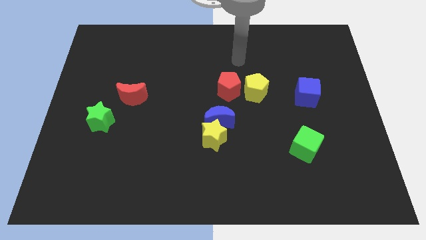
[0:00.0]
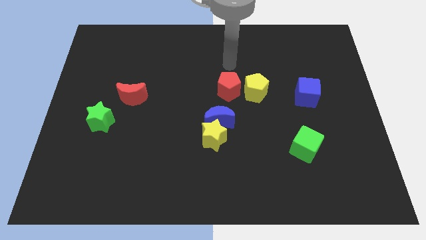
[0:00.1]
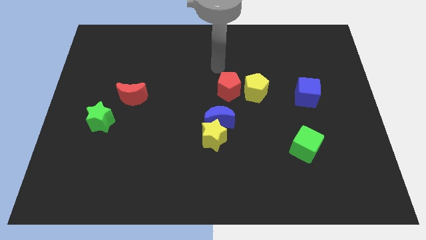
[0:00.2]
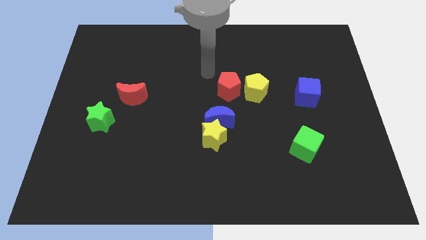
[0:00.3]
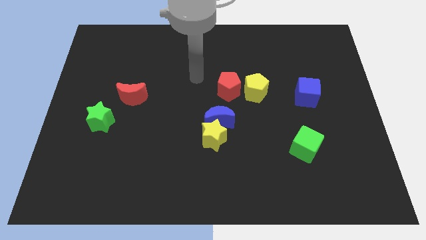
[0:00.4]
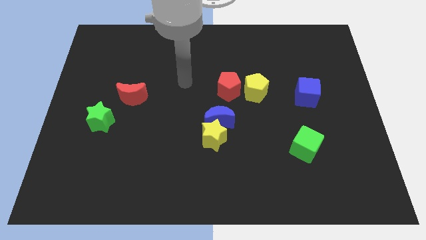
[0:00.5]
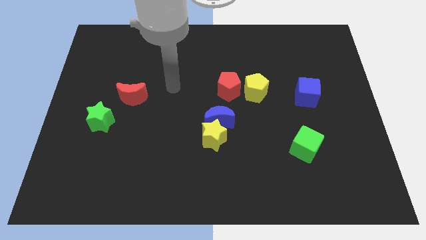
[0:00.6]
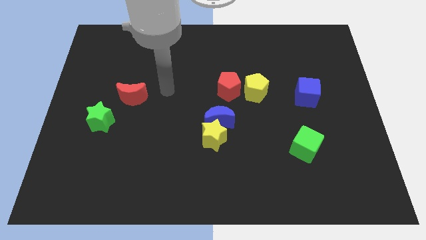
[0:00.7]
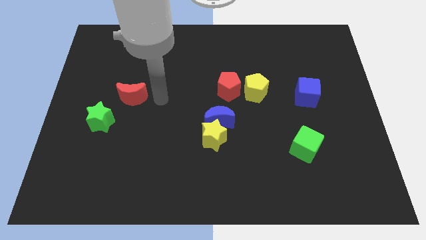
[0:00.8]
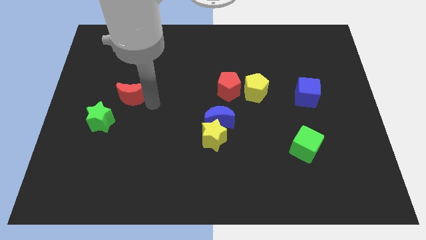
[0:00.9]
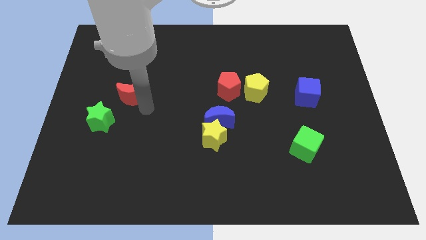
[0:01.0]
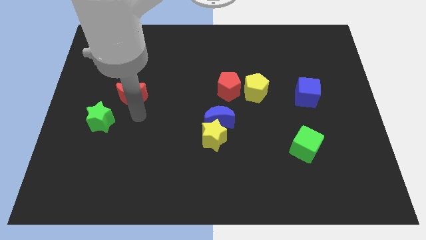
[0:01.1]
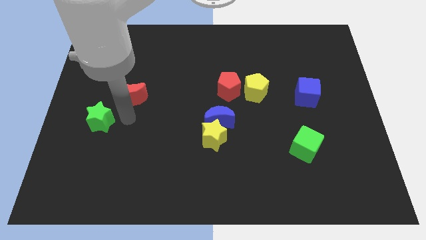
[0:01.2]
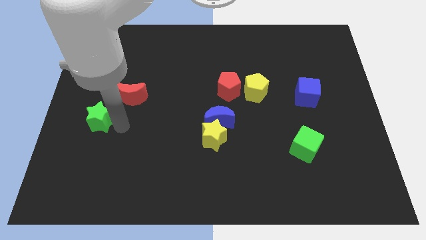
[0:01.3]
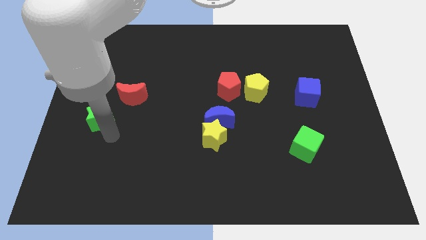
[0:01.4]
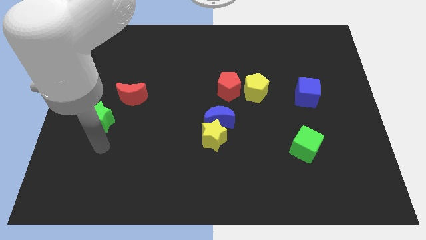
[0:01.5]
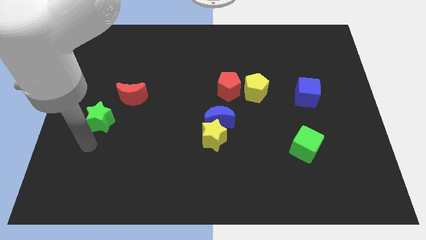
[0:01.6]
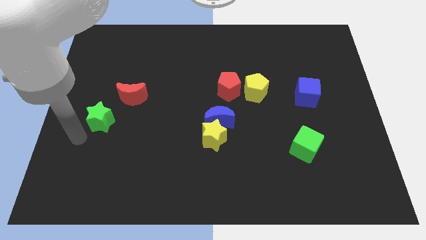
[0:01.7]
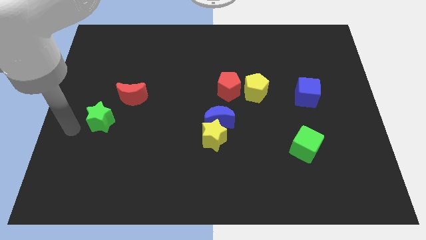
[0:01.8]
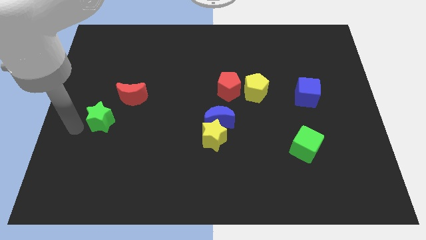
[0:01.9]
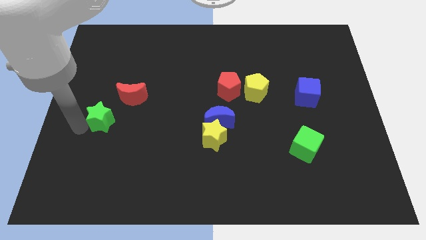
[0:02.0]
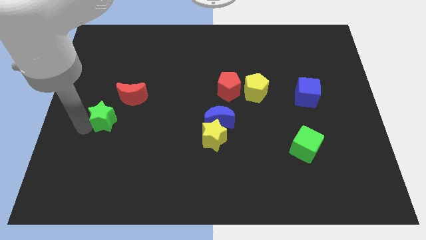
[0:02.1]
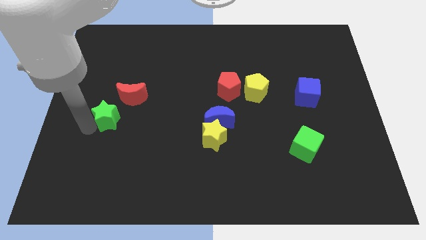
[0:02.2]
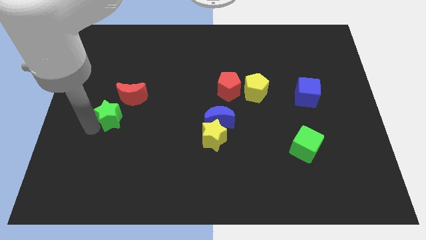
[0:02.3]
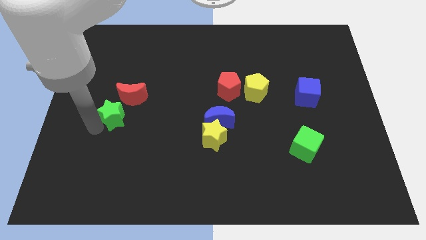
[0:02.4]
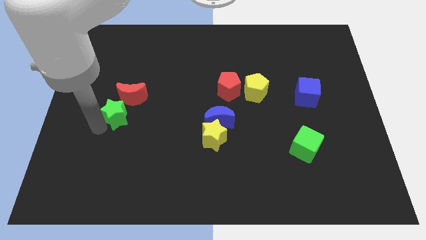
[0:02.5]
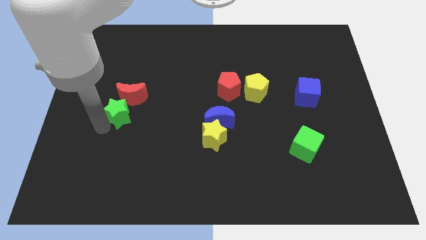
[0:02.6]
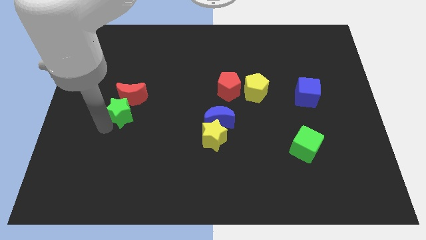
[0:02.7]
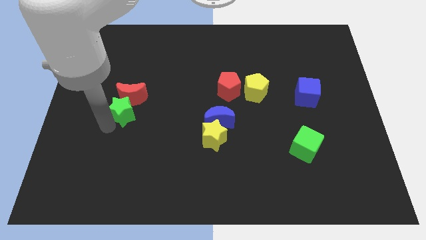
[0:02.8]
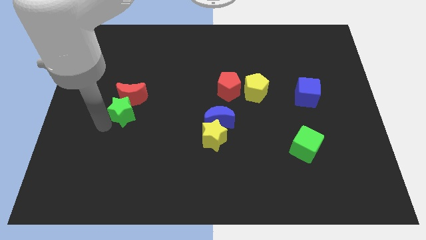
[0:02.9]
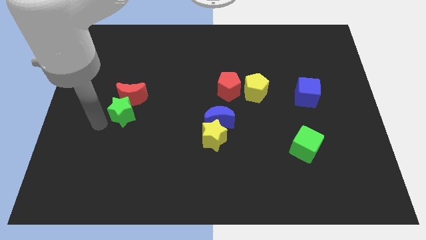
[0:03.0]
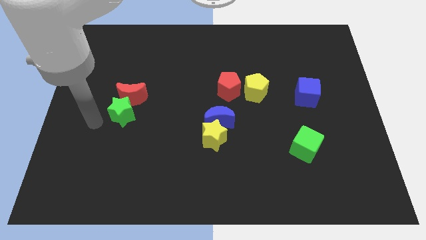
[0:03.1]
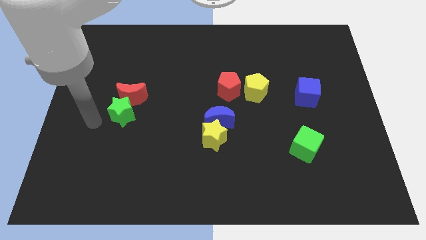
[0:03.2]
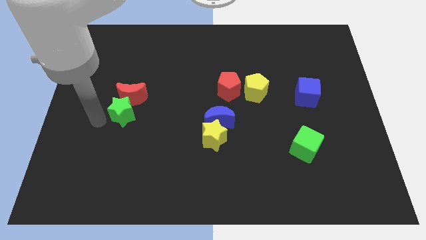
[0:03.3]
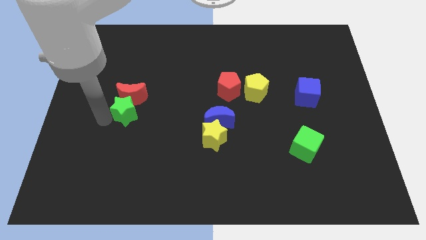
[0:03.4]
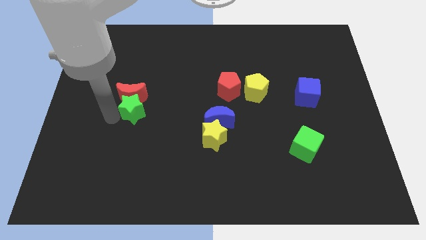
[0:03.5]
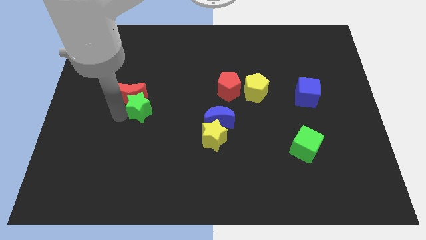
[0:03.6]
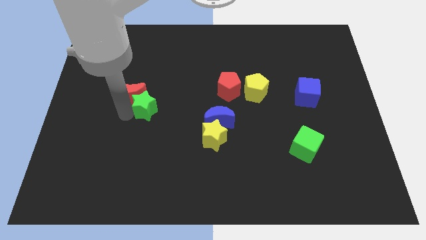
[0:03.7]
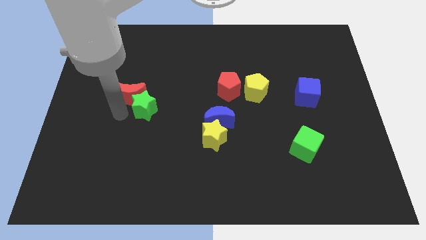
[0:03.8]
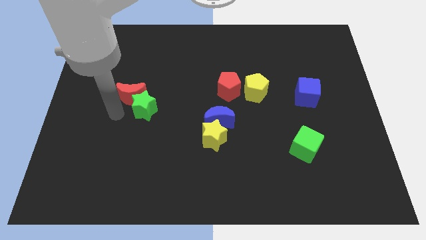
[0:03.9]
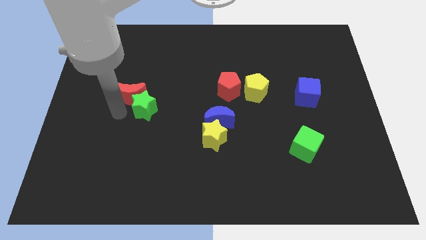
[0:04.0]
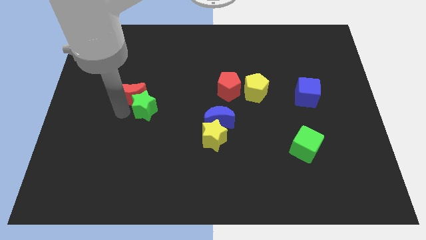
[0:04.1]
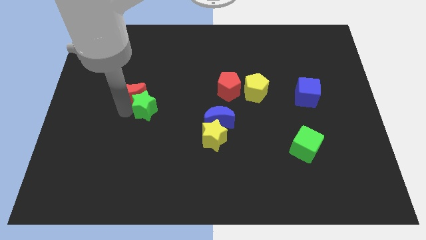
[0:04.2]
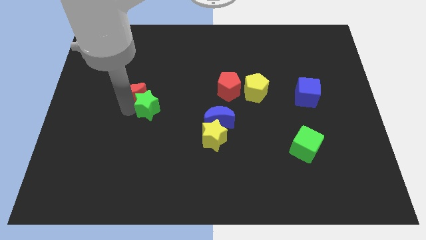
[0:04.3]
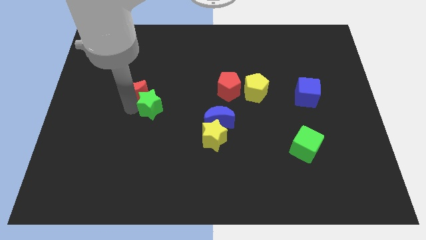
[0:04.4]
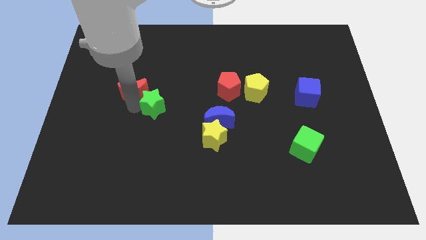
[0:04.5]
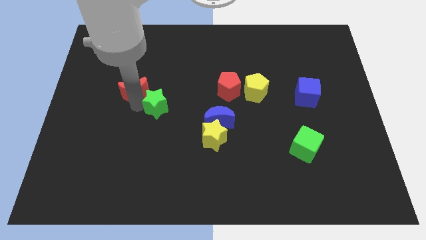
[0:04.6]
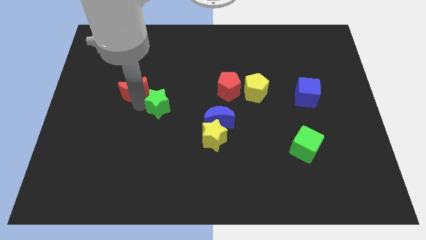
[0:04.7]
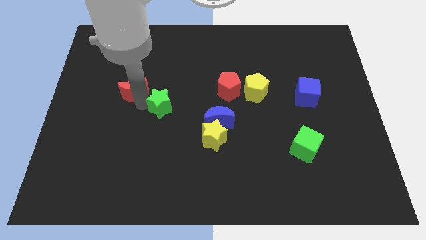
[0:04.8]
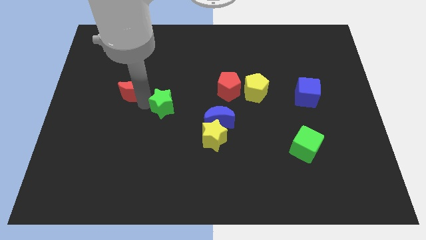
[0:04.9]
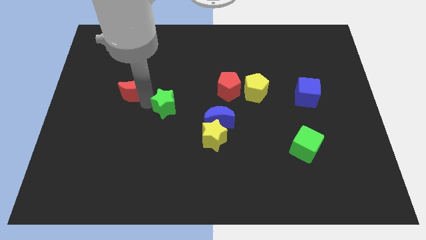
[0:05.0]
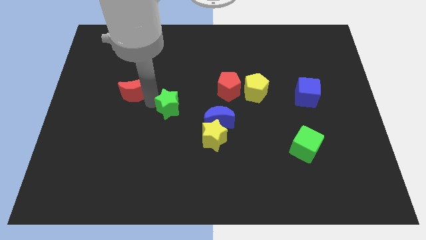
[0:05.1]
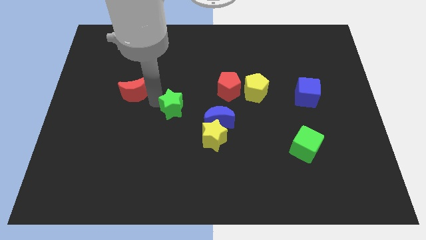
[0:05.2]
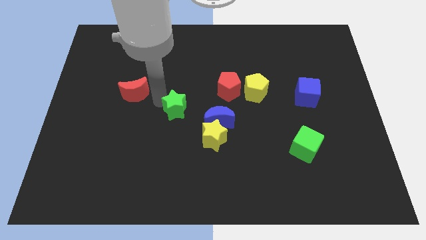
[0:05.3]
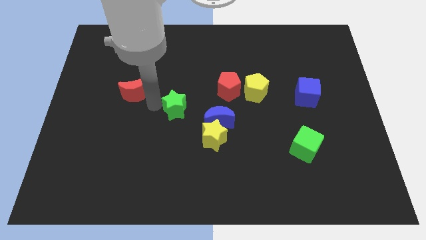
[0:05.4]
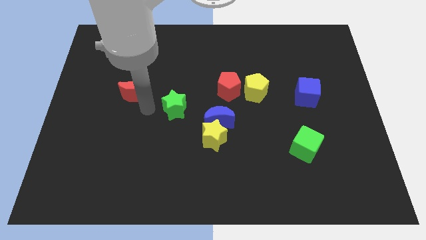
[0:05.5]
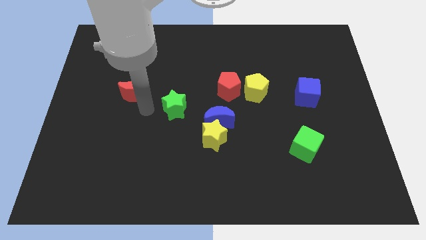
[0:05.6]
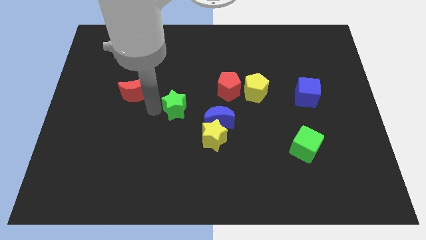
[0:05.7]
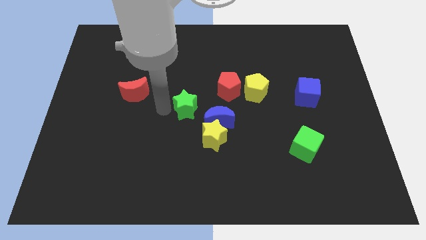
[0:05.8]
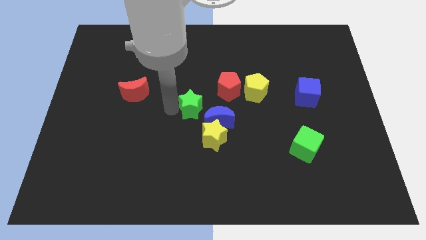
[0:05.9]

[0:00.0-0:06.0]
slide the green star to the right

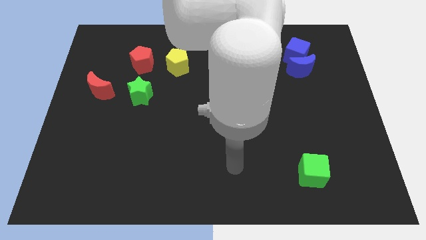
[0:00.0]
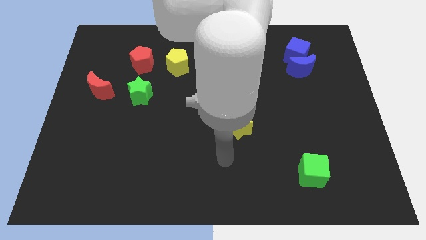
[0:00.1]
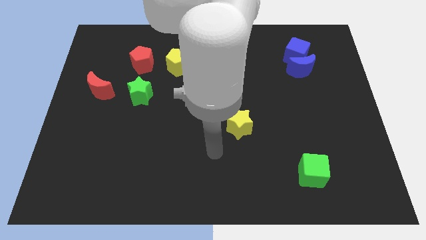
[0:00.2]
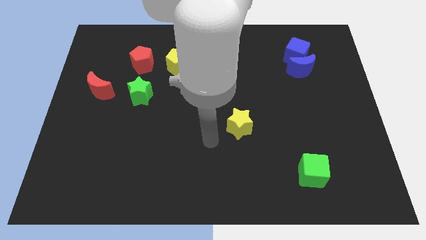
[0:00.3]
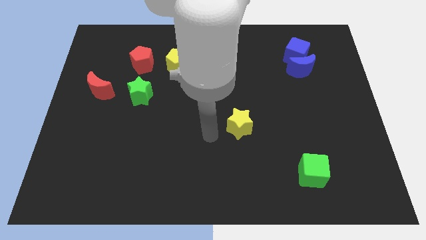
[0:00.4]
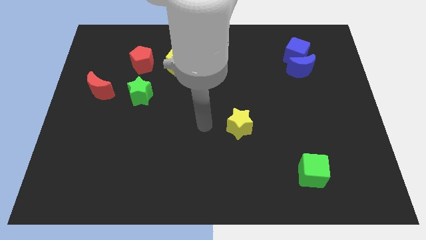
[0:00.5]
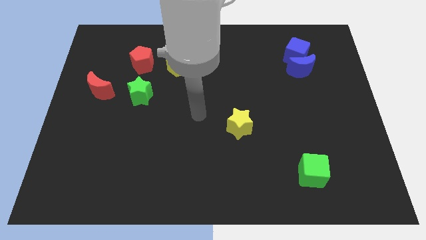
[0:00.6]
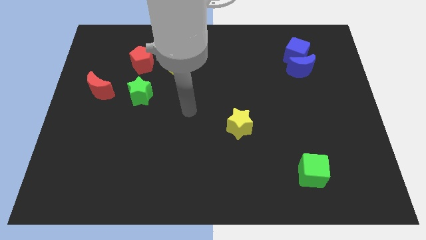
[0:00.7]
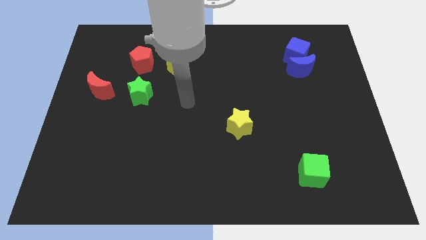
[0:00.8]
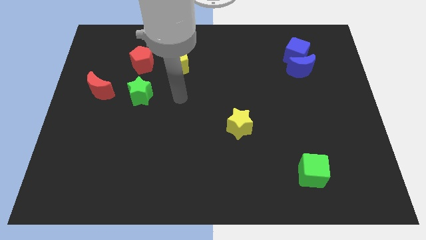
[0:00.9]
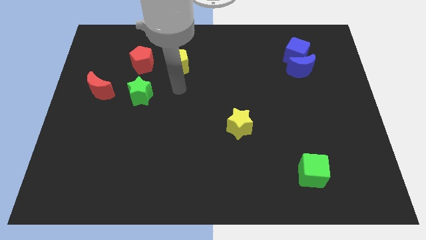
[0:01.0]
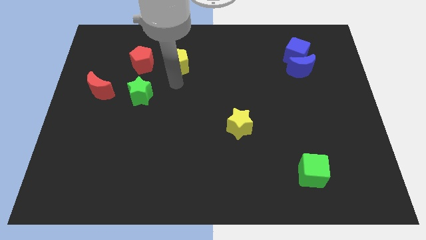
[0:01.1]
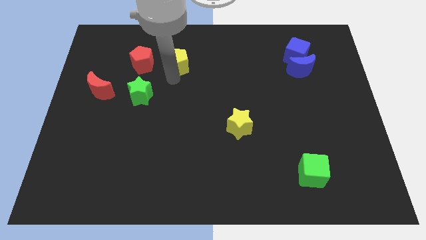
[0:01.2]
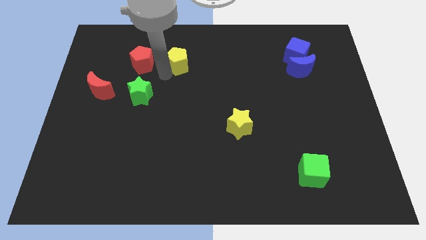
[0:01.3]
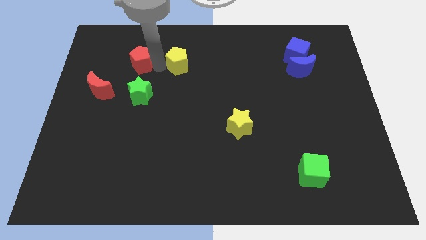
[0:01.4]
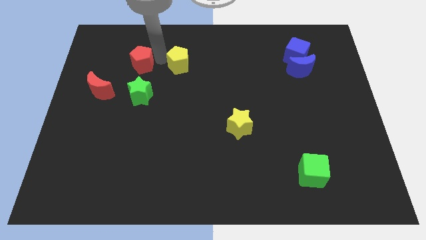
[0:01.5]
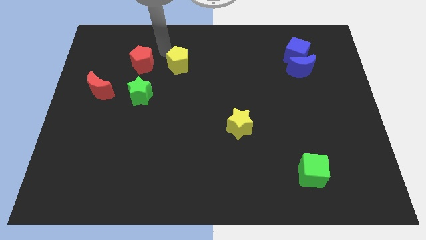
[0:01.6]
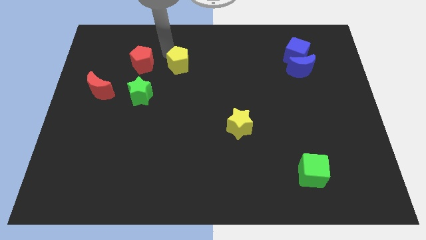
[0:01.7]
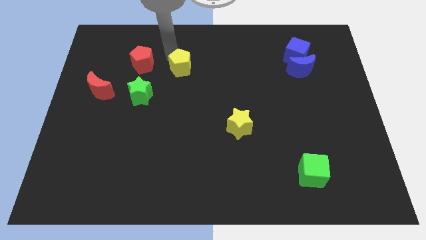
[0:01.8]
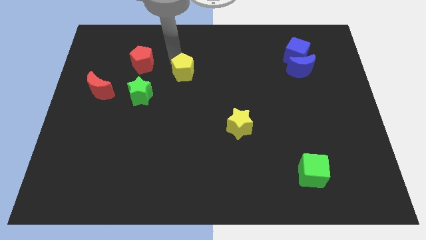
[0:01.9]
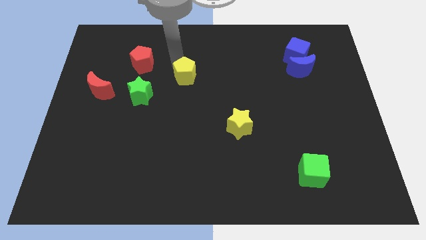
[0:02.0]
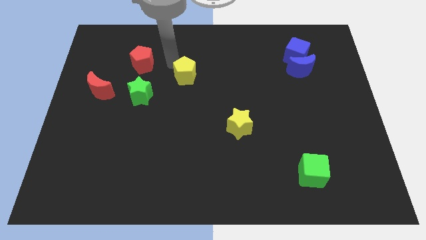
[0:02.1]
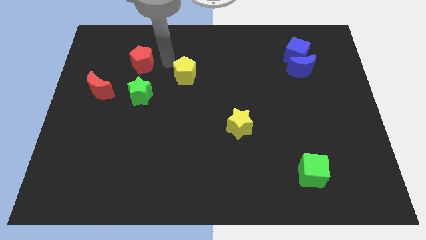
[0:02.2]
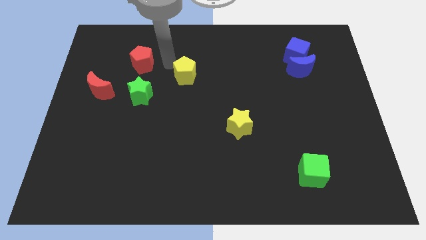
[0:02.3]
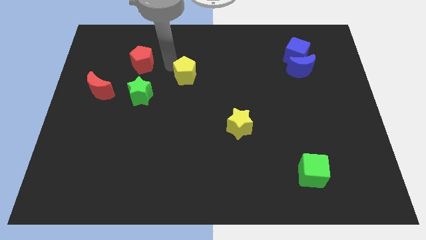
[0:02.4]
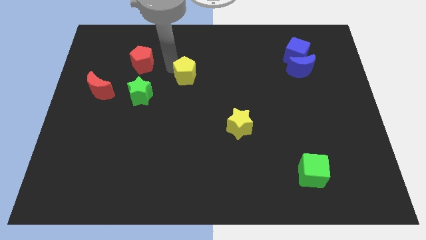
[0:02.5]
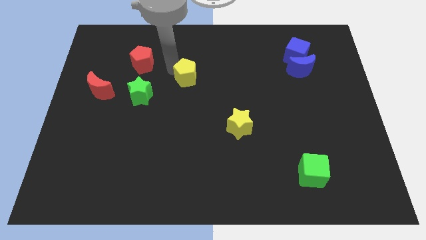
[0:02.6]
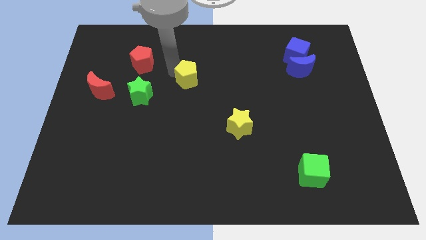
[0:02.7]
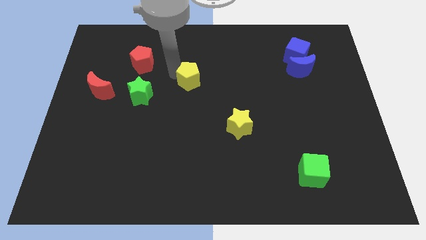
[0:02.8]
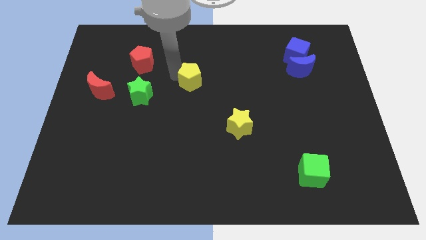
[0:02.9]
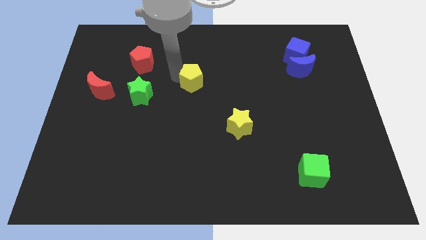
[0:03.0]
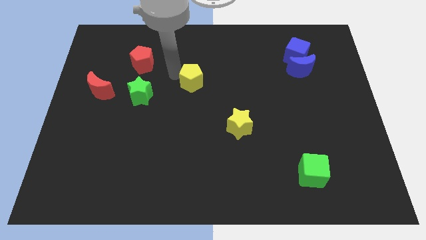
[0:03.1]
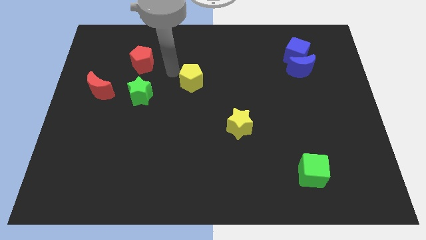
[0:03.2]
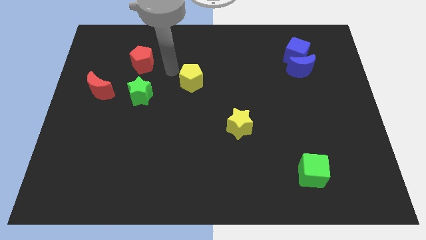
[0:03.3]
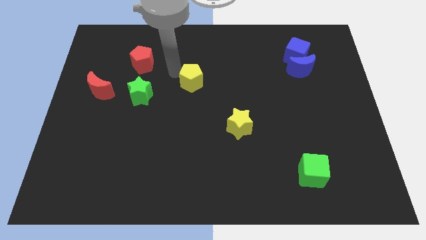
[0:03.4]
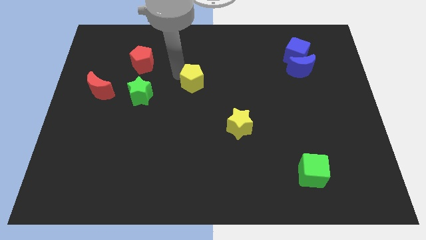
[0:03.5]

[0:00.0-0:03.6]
slide the yellow pentagon a bit down and right
